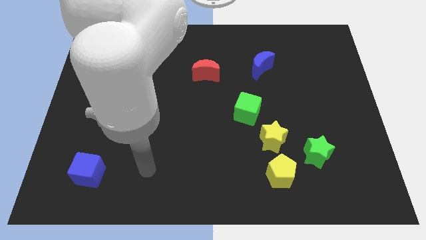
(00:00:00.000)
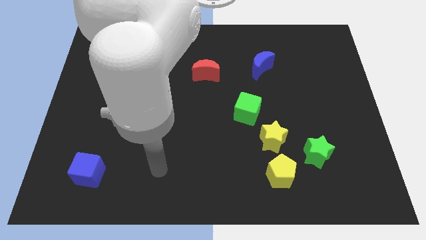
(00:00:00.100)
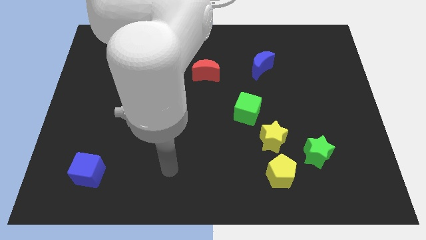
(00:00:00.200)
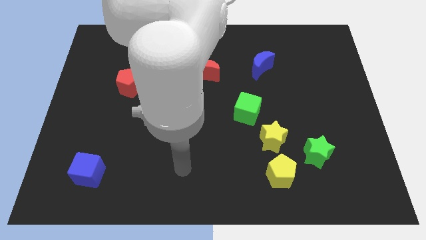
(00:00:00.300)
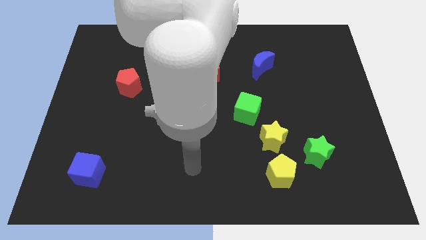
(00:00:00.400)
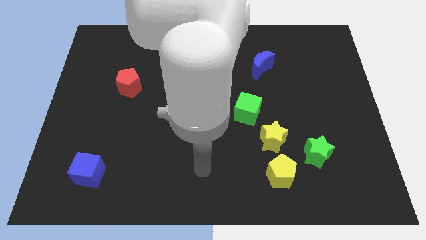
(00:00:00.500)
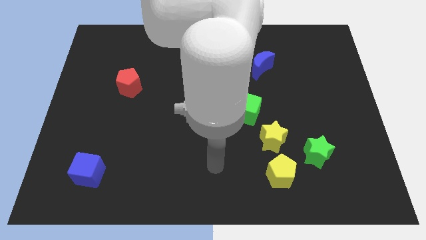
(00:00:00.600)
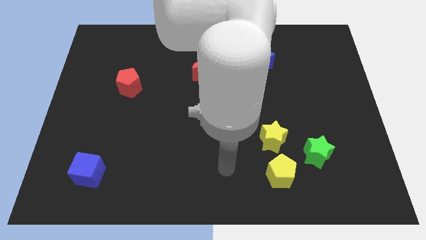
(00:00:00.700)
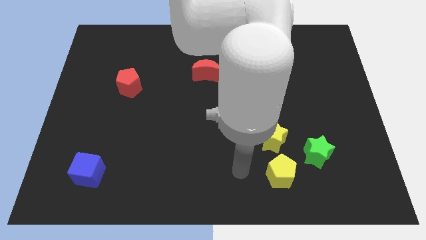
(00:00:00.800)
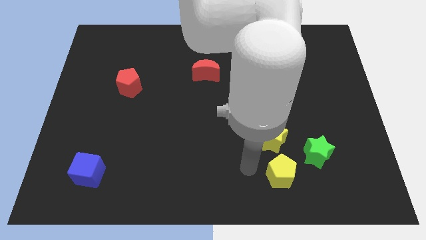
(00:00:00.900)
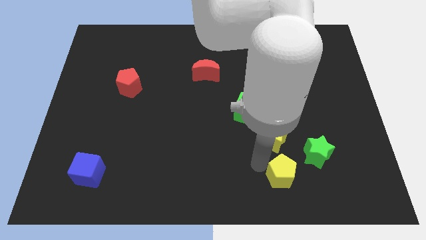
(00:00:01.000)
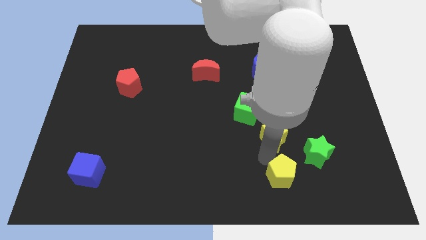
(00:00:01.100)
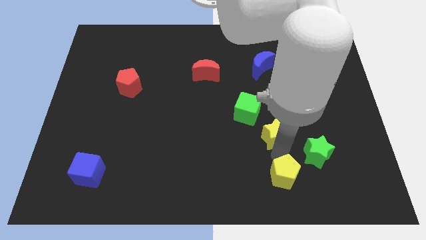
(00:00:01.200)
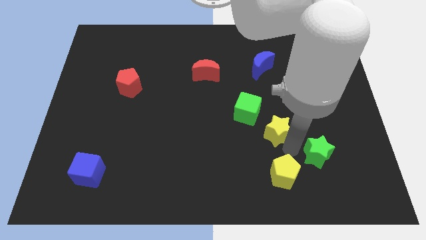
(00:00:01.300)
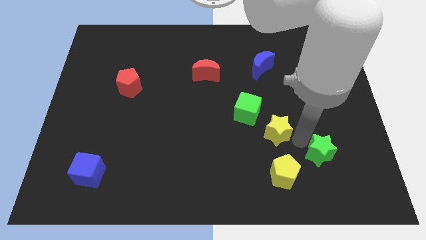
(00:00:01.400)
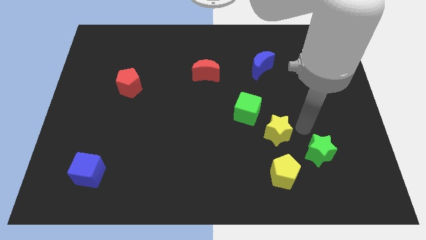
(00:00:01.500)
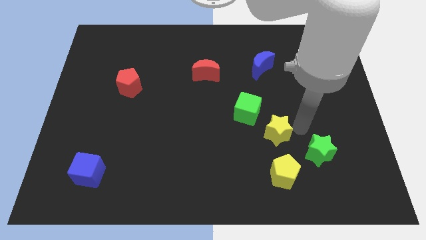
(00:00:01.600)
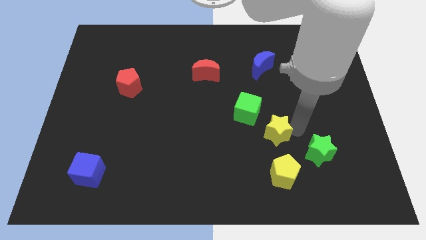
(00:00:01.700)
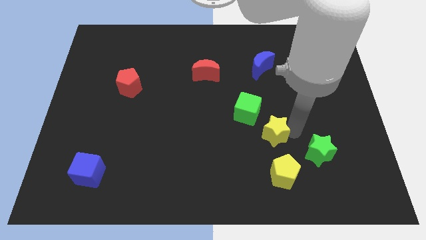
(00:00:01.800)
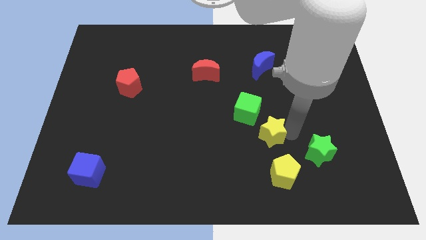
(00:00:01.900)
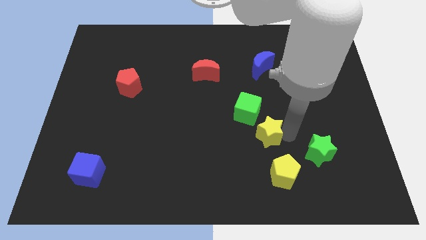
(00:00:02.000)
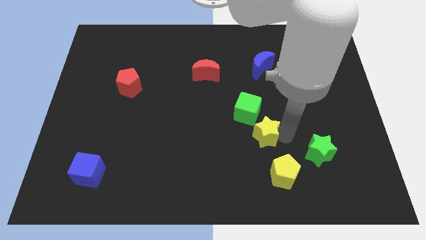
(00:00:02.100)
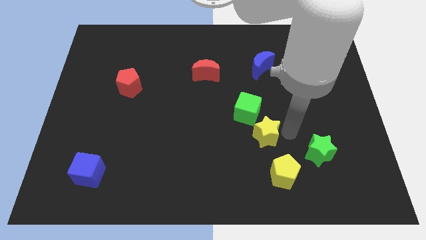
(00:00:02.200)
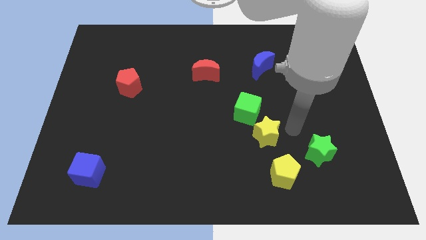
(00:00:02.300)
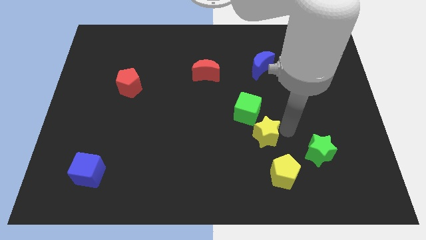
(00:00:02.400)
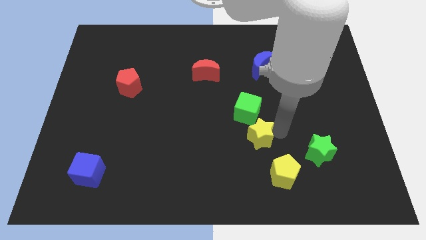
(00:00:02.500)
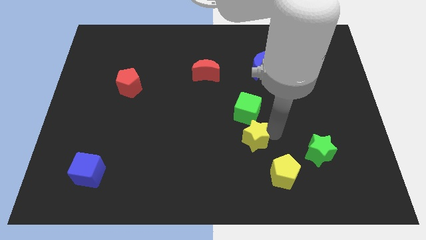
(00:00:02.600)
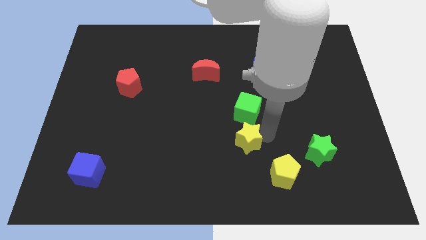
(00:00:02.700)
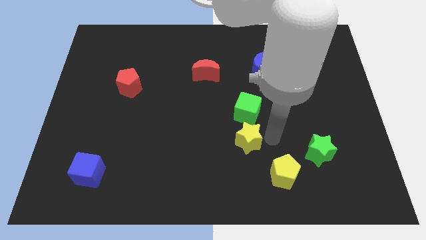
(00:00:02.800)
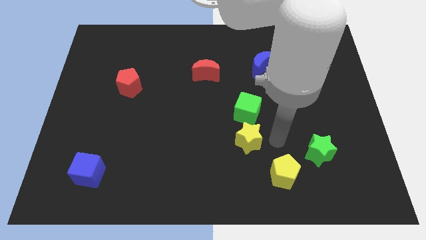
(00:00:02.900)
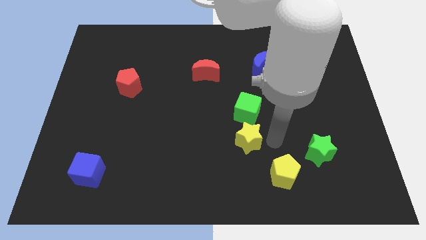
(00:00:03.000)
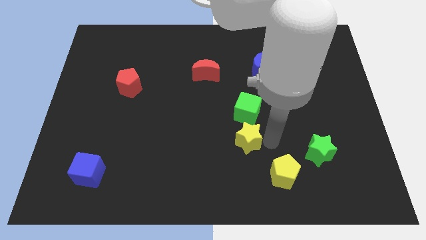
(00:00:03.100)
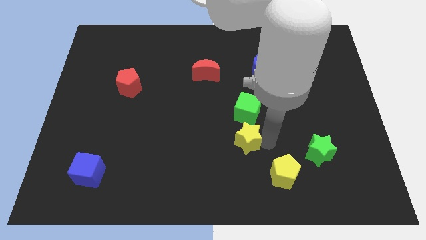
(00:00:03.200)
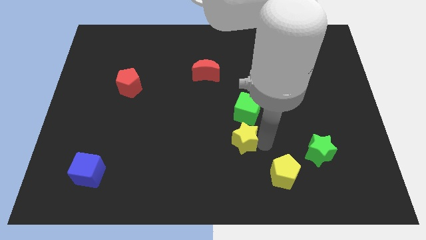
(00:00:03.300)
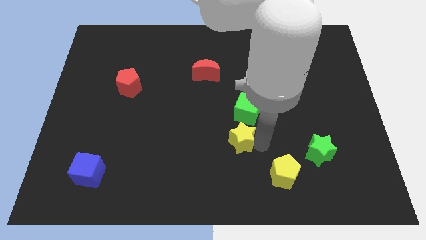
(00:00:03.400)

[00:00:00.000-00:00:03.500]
slightly move the yellow star left

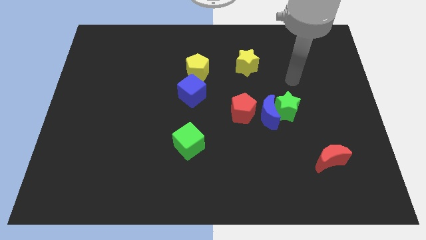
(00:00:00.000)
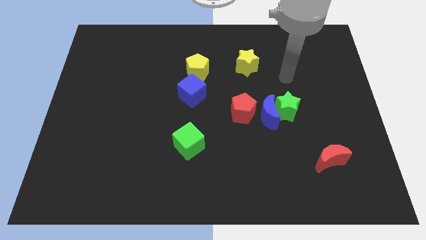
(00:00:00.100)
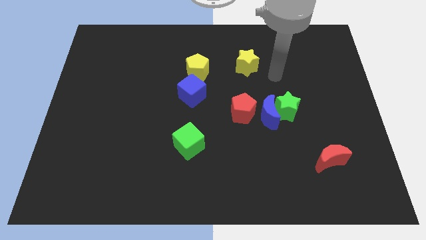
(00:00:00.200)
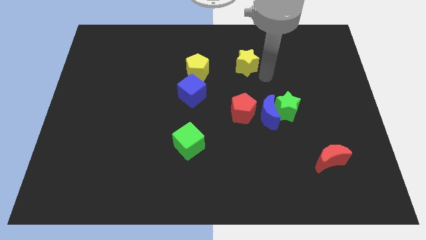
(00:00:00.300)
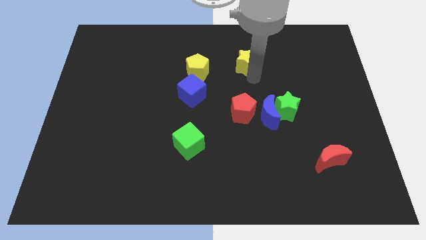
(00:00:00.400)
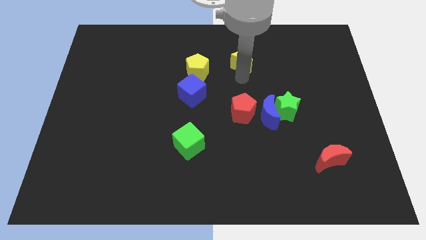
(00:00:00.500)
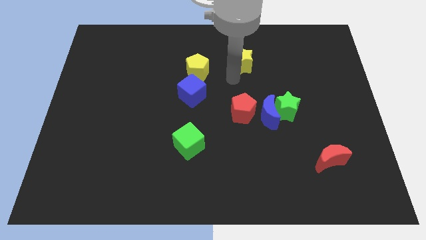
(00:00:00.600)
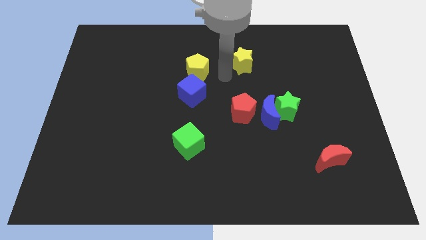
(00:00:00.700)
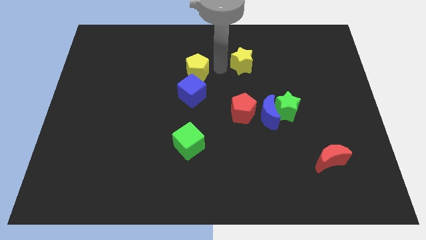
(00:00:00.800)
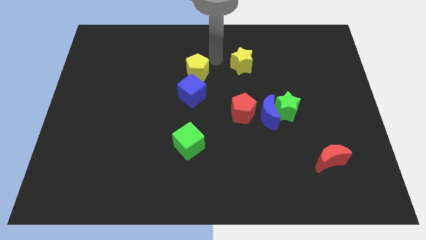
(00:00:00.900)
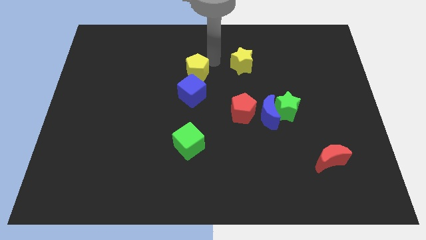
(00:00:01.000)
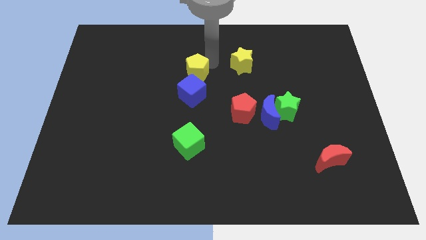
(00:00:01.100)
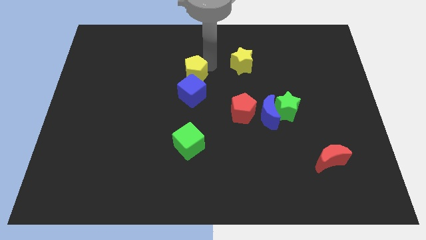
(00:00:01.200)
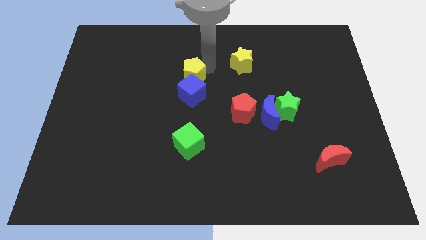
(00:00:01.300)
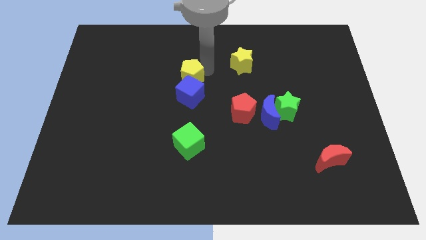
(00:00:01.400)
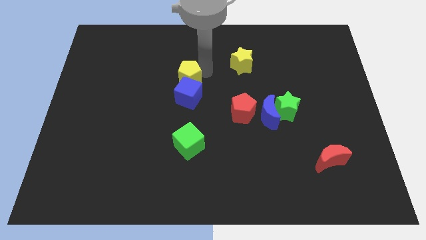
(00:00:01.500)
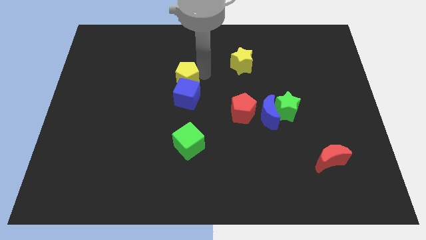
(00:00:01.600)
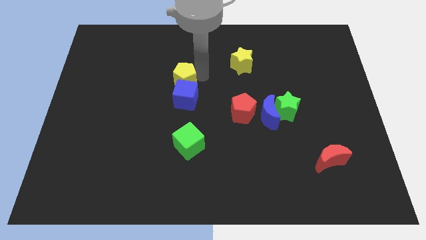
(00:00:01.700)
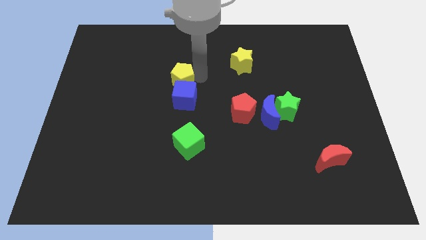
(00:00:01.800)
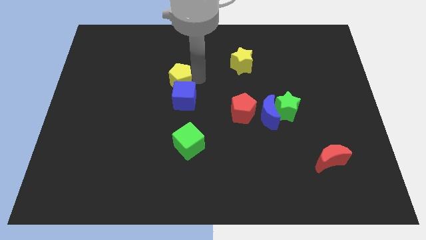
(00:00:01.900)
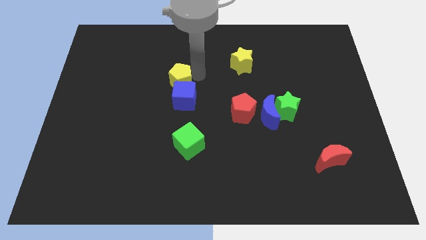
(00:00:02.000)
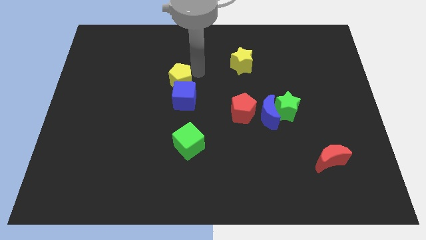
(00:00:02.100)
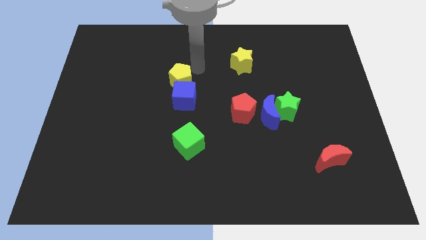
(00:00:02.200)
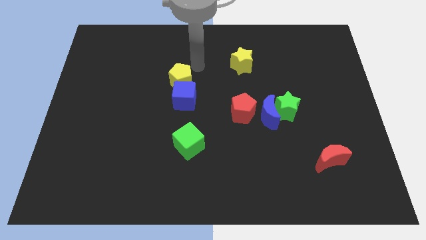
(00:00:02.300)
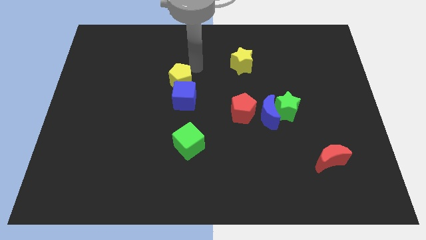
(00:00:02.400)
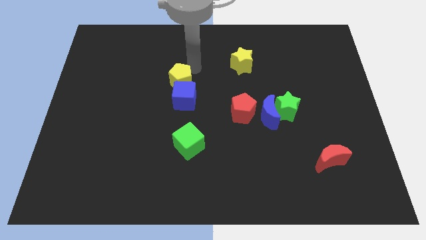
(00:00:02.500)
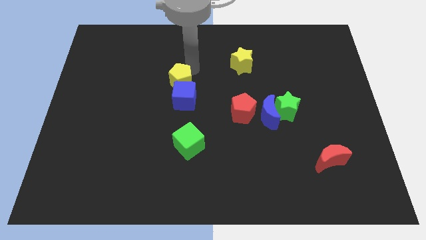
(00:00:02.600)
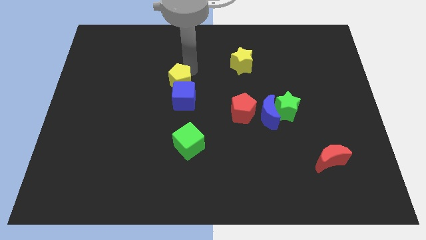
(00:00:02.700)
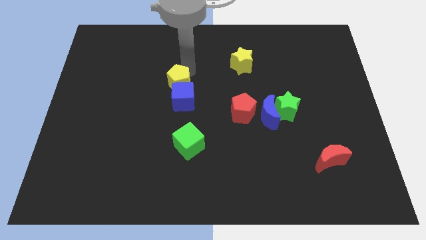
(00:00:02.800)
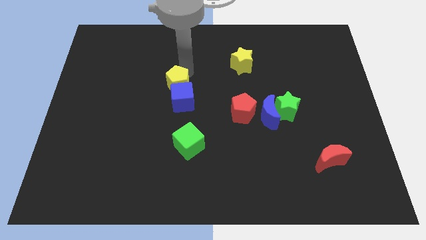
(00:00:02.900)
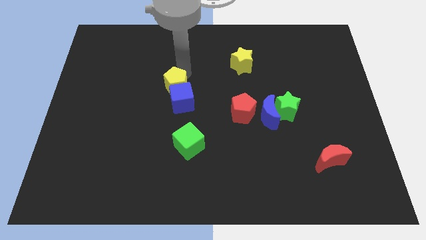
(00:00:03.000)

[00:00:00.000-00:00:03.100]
slightly move the yellow pentagon downwards and to the left

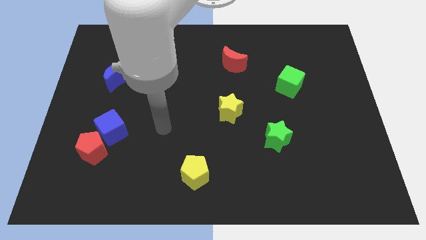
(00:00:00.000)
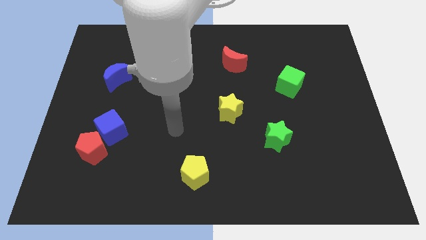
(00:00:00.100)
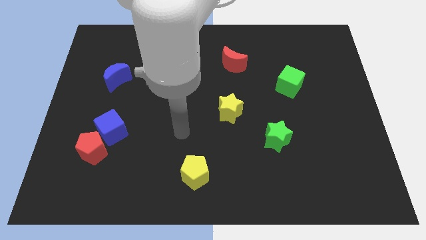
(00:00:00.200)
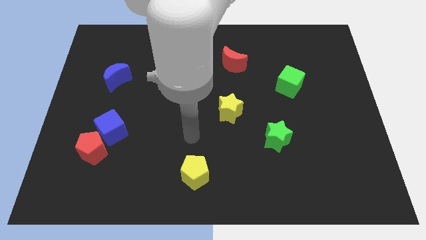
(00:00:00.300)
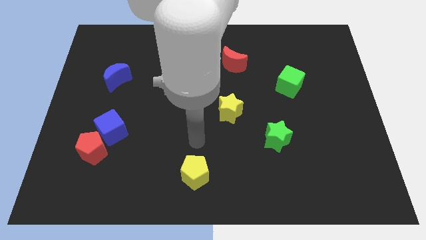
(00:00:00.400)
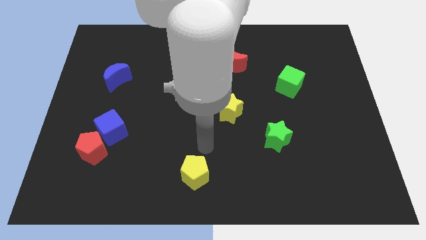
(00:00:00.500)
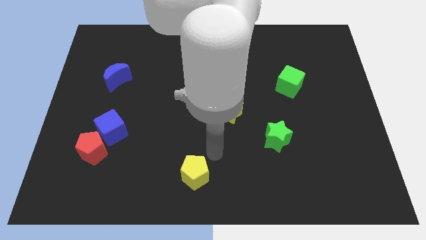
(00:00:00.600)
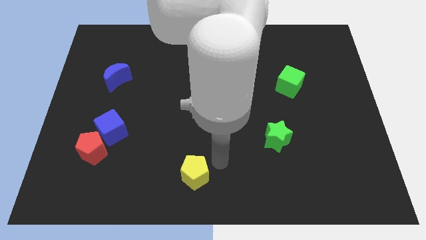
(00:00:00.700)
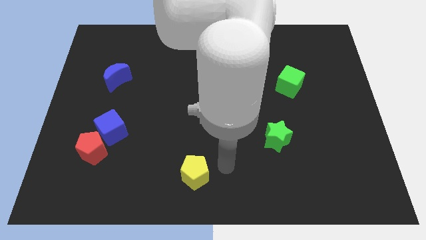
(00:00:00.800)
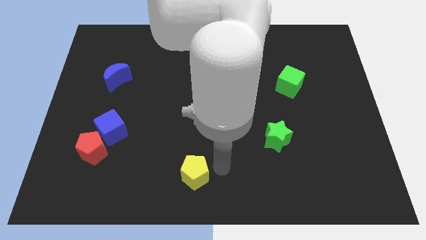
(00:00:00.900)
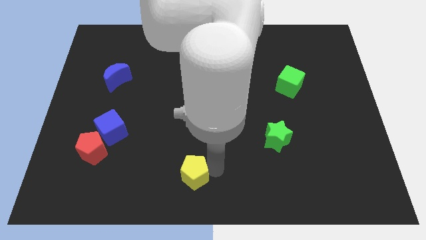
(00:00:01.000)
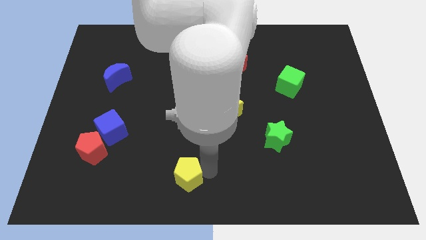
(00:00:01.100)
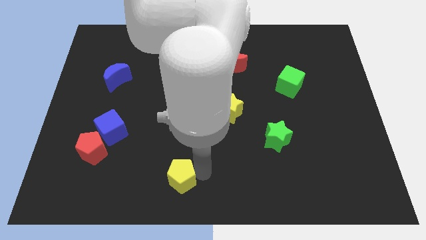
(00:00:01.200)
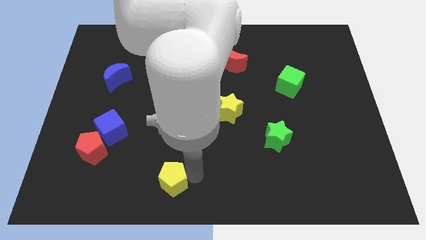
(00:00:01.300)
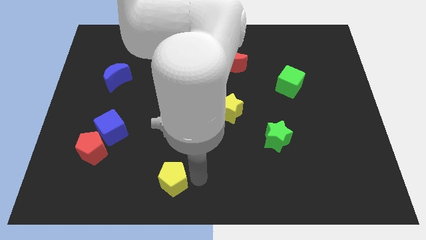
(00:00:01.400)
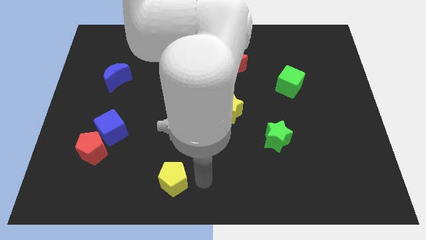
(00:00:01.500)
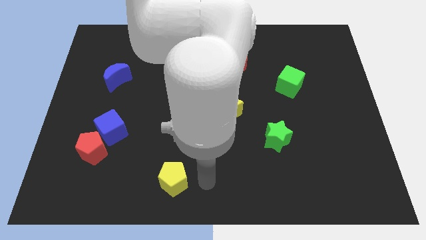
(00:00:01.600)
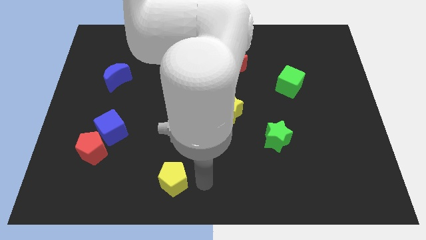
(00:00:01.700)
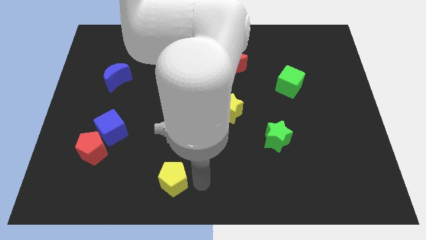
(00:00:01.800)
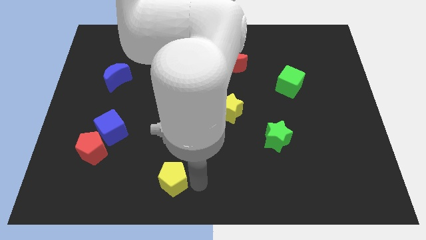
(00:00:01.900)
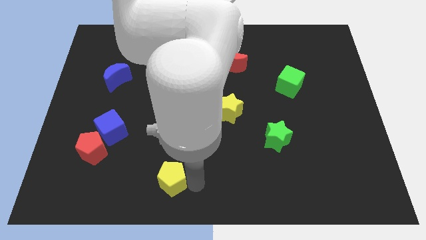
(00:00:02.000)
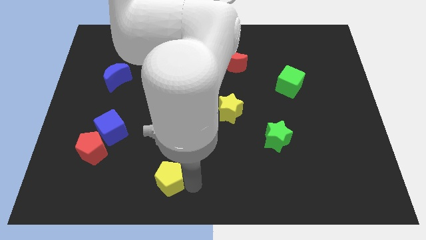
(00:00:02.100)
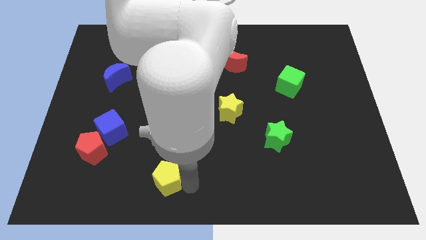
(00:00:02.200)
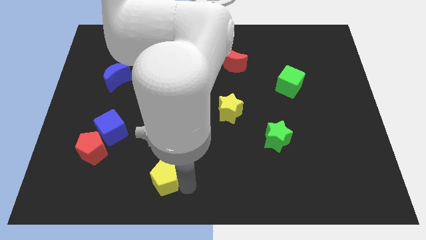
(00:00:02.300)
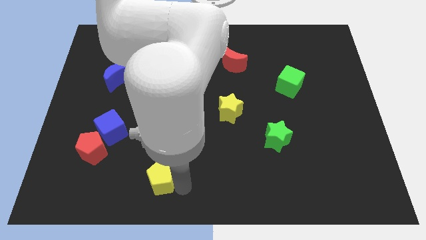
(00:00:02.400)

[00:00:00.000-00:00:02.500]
slide the yellow pentagon a bit left
